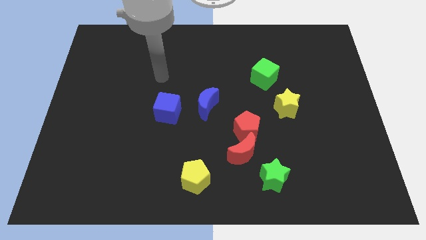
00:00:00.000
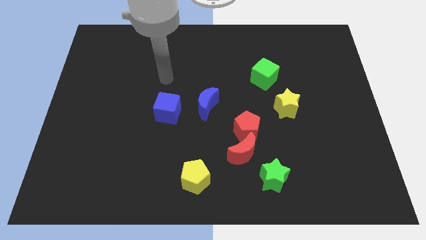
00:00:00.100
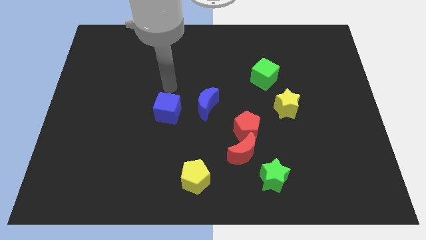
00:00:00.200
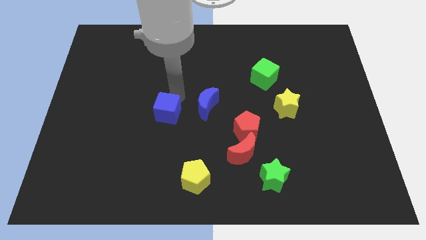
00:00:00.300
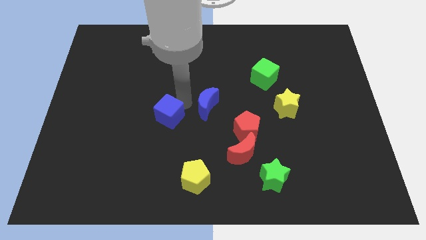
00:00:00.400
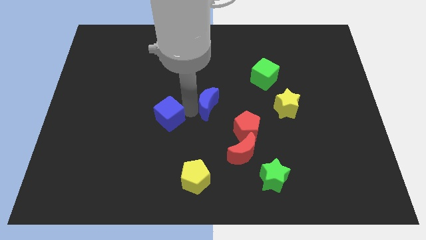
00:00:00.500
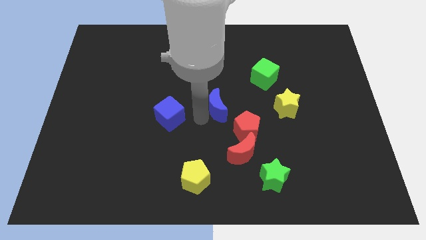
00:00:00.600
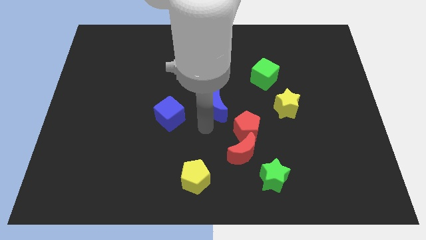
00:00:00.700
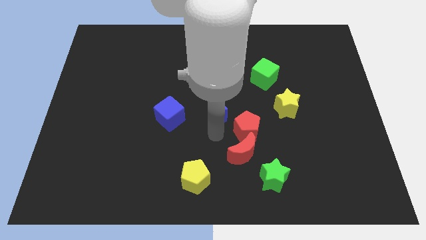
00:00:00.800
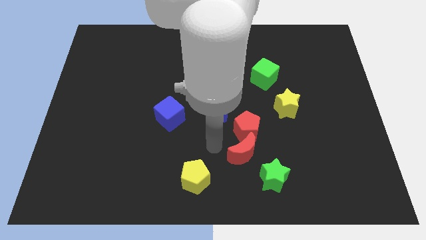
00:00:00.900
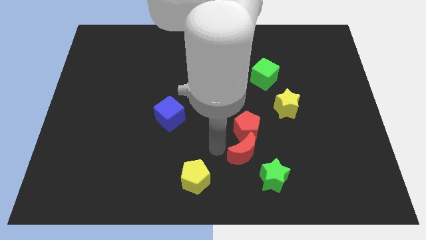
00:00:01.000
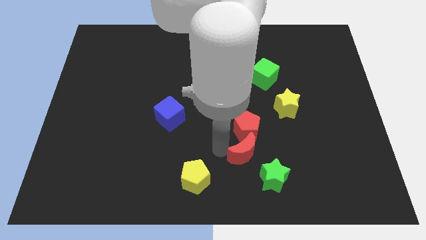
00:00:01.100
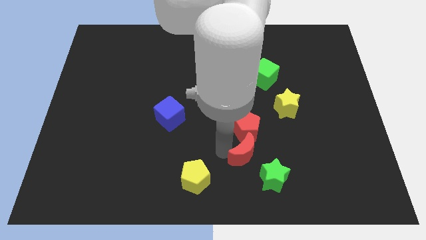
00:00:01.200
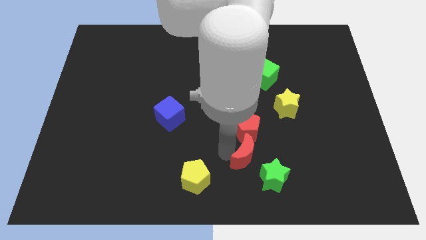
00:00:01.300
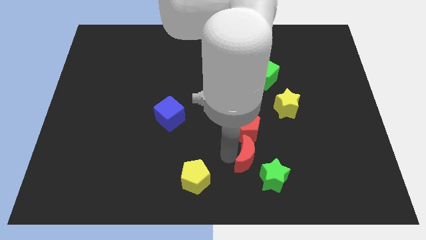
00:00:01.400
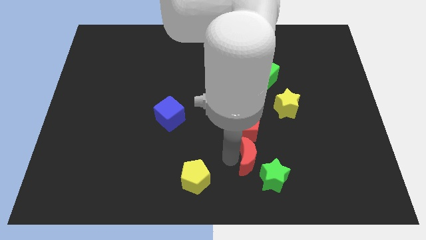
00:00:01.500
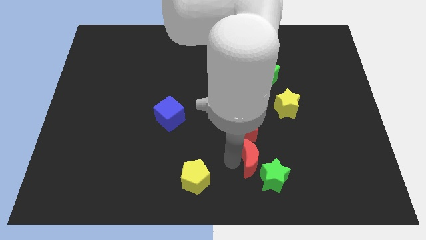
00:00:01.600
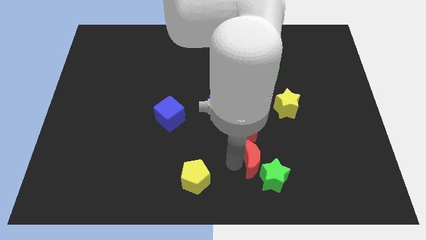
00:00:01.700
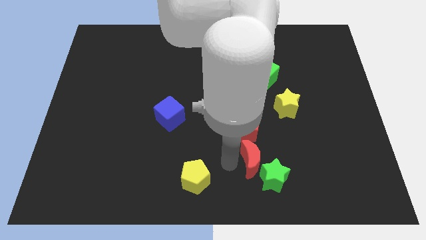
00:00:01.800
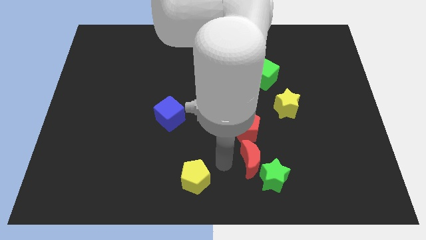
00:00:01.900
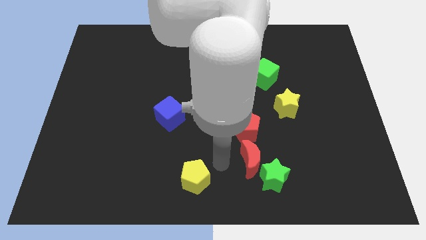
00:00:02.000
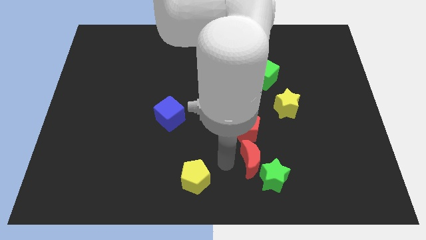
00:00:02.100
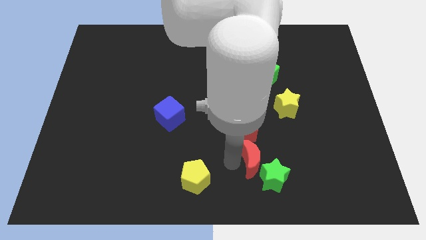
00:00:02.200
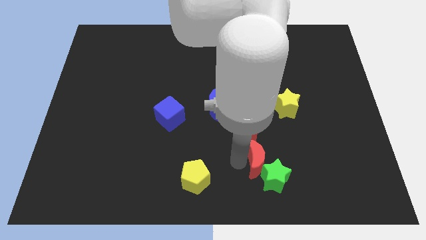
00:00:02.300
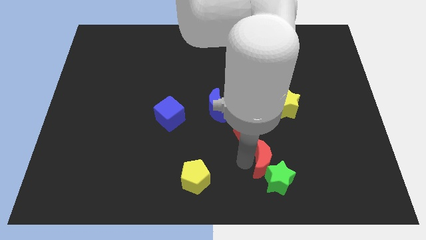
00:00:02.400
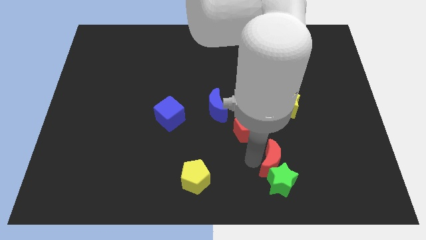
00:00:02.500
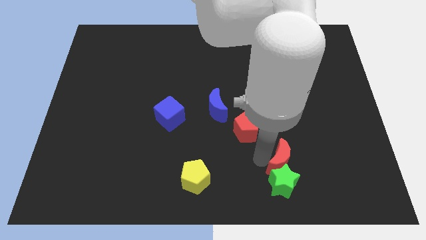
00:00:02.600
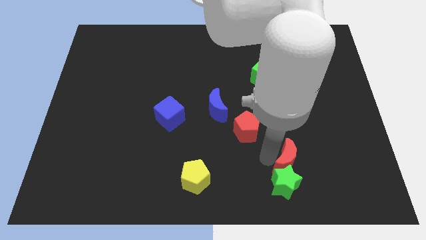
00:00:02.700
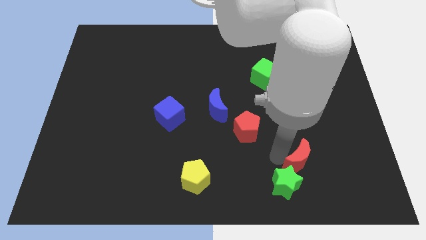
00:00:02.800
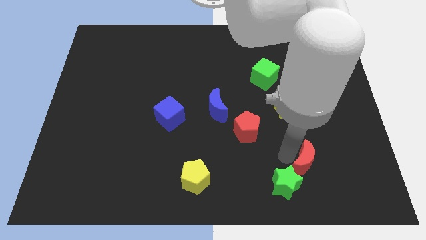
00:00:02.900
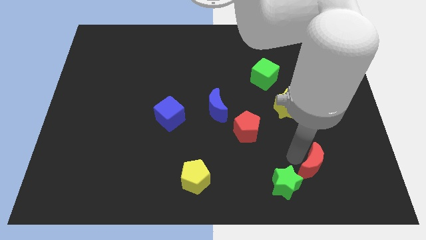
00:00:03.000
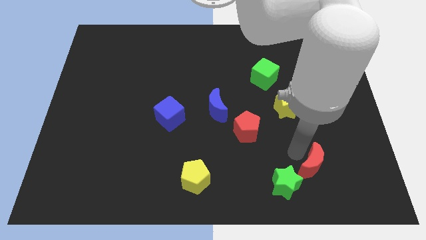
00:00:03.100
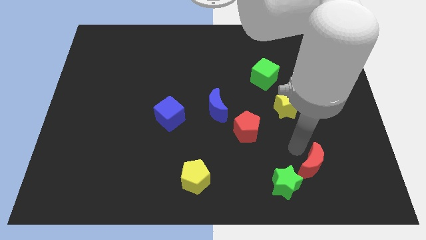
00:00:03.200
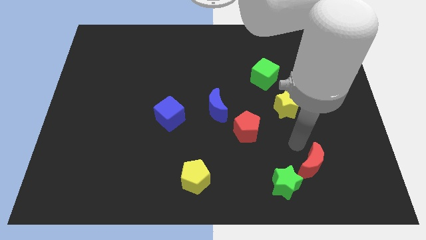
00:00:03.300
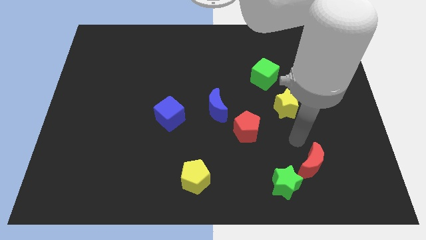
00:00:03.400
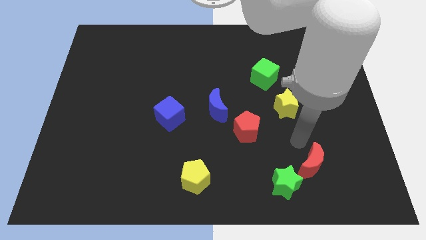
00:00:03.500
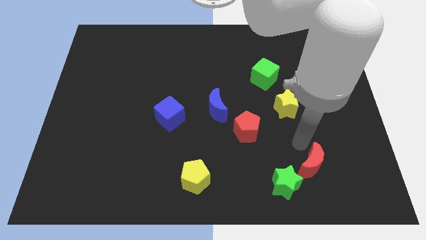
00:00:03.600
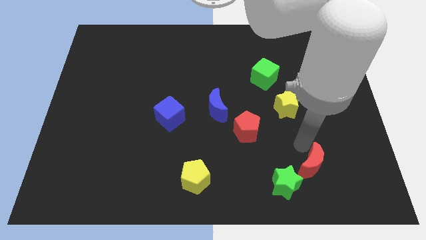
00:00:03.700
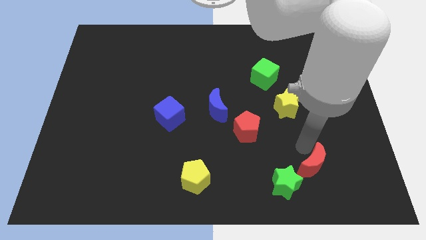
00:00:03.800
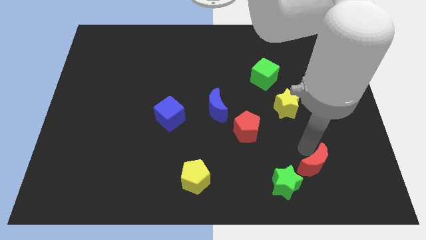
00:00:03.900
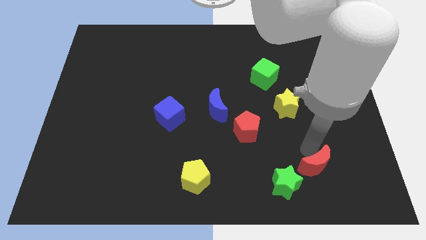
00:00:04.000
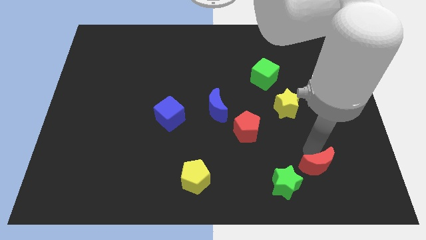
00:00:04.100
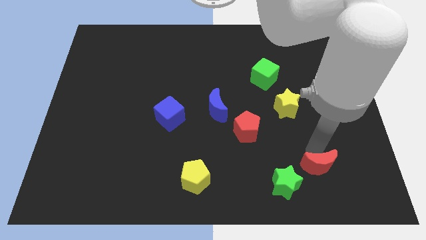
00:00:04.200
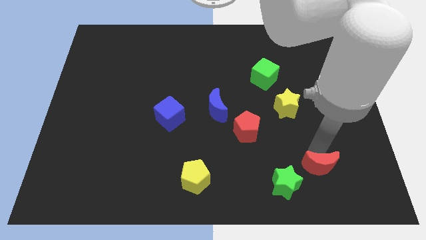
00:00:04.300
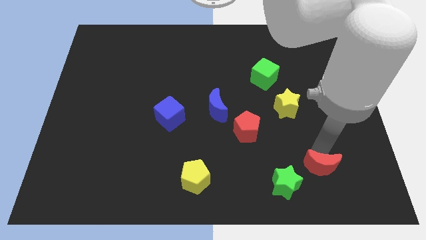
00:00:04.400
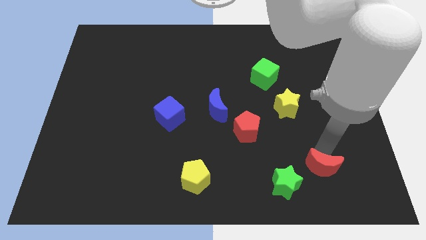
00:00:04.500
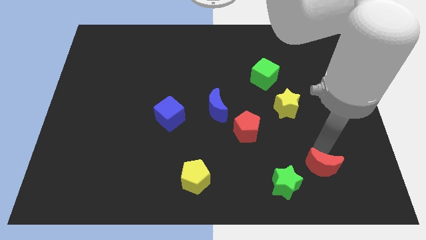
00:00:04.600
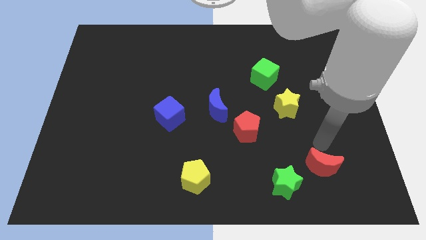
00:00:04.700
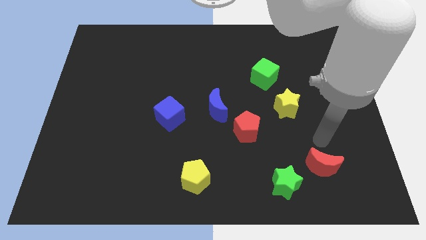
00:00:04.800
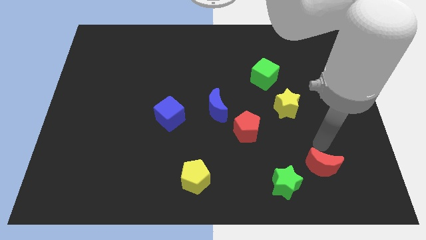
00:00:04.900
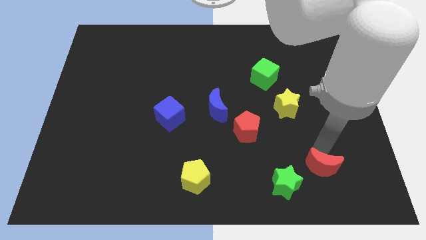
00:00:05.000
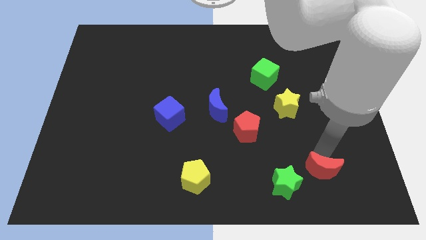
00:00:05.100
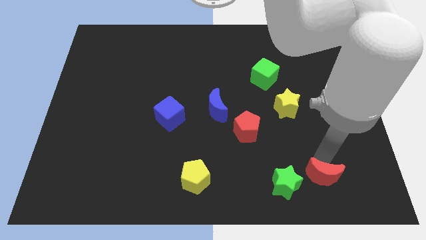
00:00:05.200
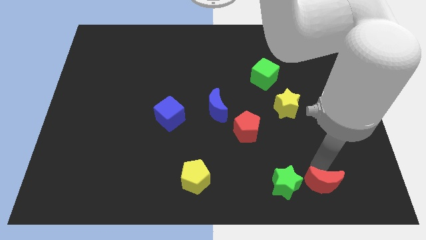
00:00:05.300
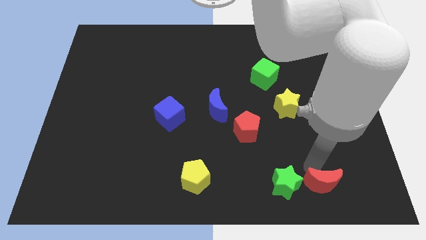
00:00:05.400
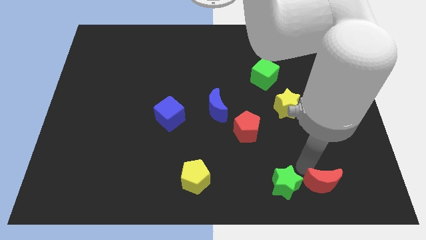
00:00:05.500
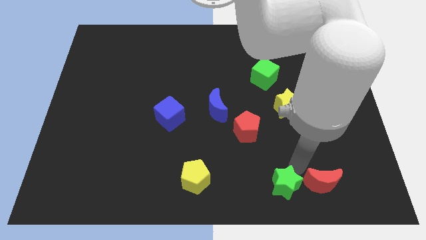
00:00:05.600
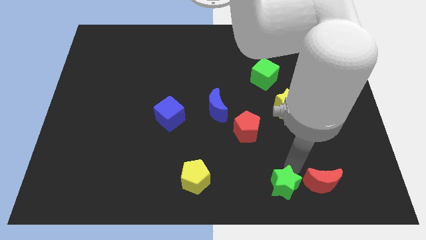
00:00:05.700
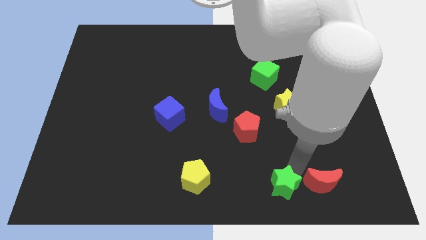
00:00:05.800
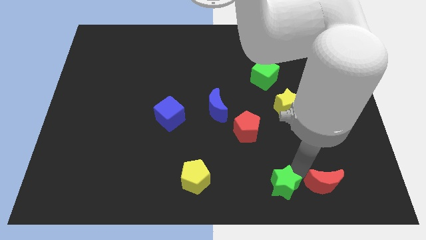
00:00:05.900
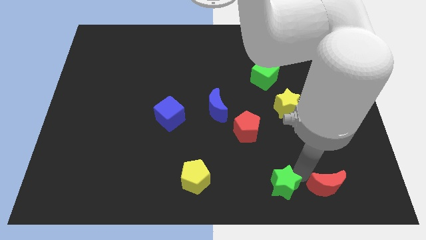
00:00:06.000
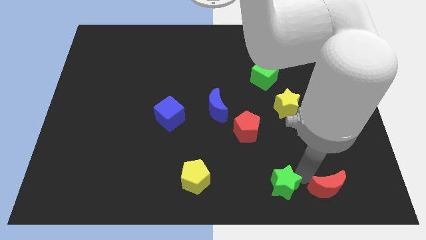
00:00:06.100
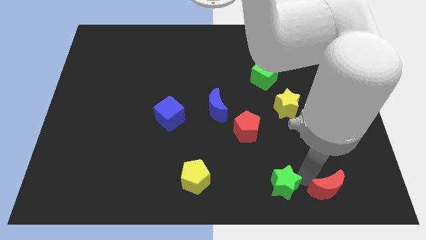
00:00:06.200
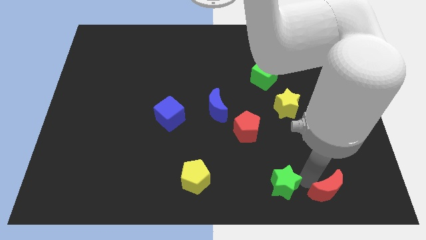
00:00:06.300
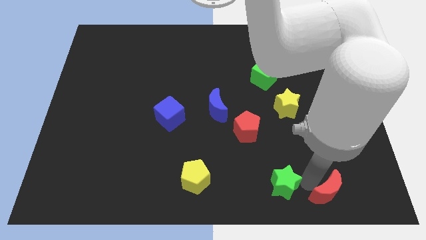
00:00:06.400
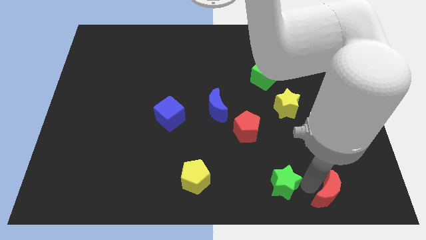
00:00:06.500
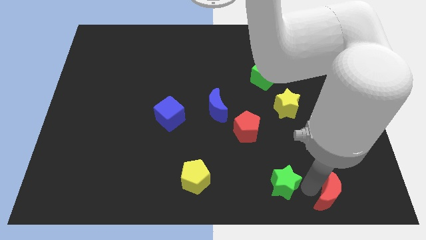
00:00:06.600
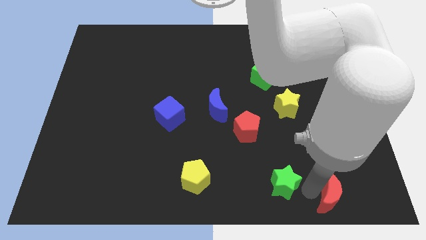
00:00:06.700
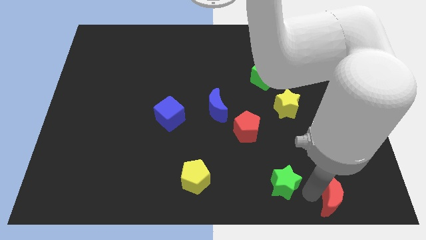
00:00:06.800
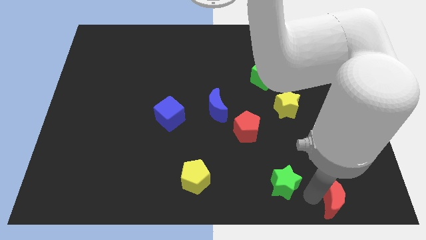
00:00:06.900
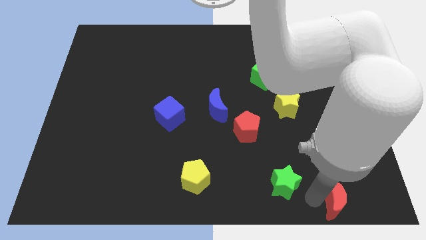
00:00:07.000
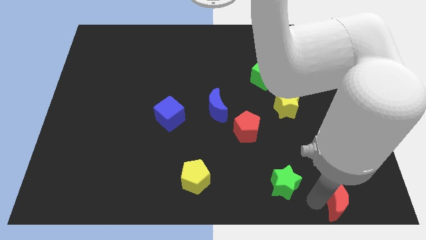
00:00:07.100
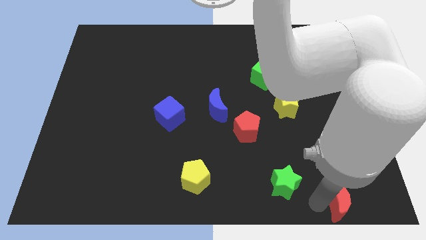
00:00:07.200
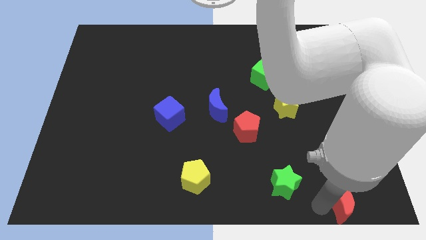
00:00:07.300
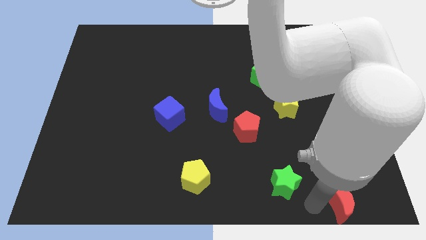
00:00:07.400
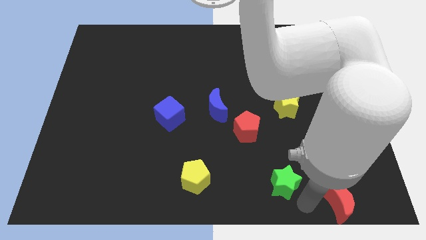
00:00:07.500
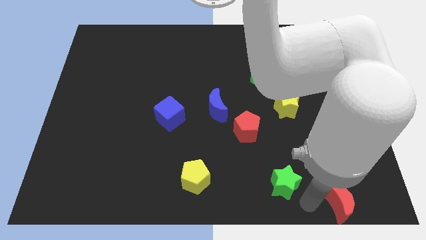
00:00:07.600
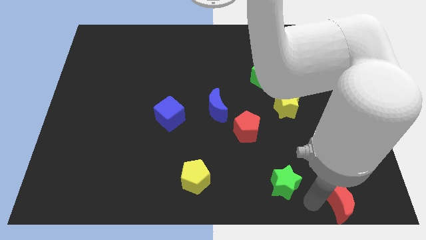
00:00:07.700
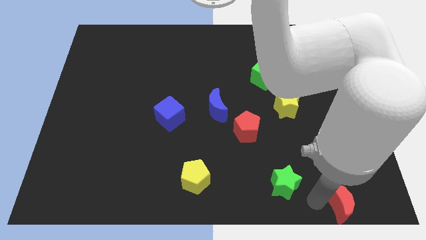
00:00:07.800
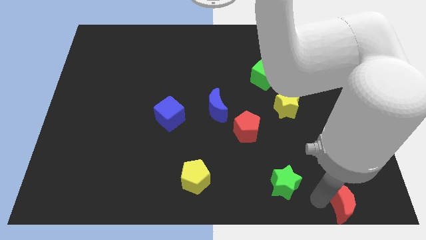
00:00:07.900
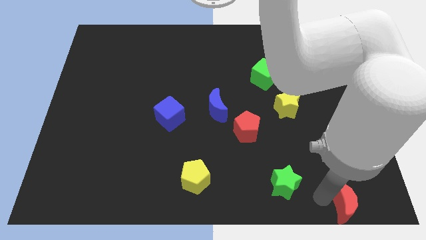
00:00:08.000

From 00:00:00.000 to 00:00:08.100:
move the red moon to the bottom right corner
